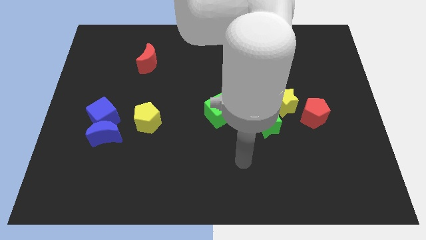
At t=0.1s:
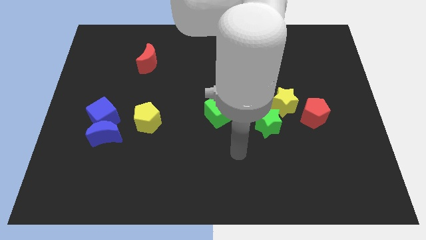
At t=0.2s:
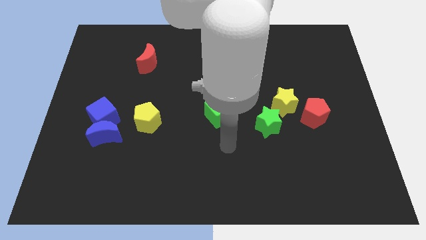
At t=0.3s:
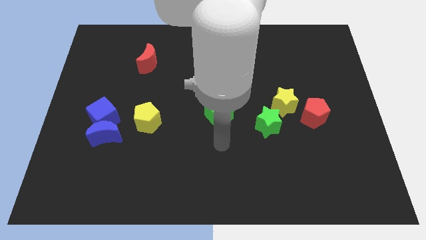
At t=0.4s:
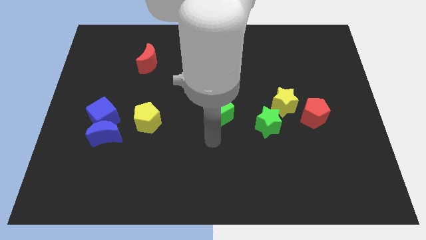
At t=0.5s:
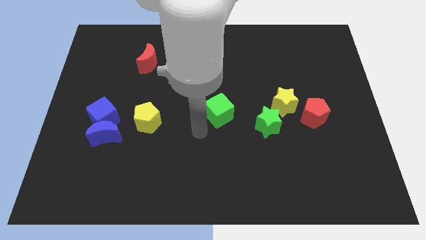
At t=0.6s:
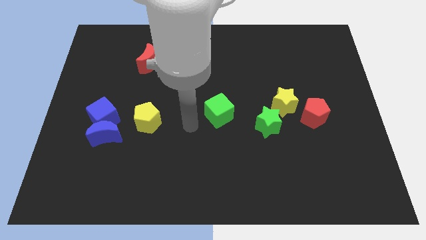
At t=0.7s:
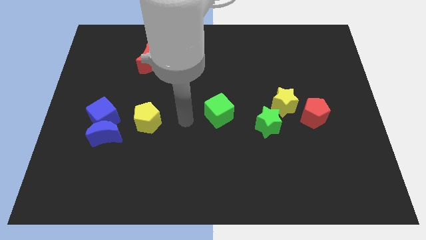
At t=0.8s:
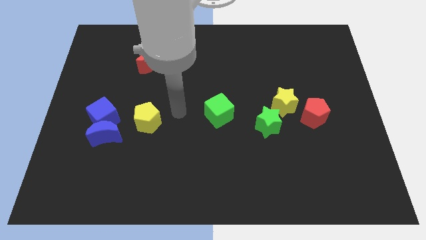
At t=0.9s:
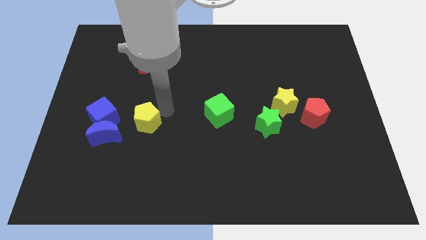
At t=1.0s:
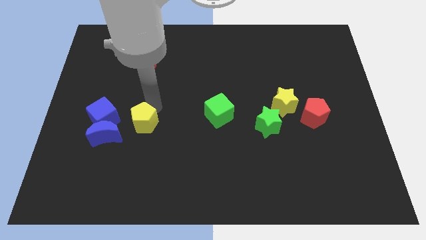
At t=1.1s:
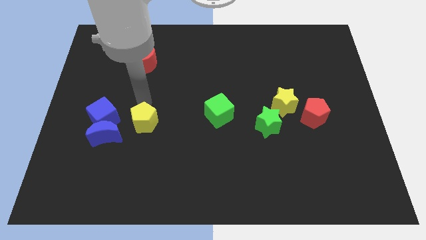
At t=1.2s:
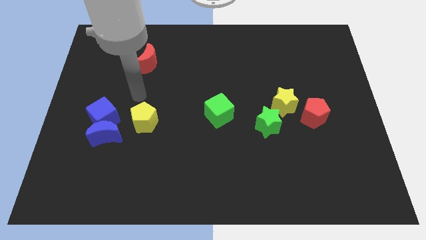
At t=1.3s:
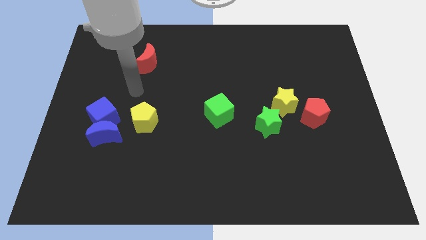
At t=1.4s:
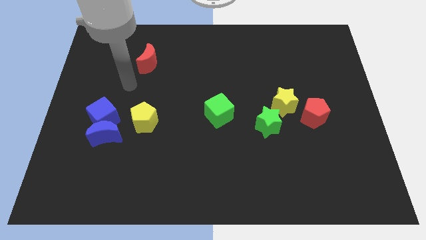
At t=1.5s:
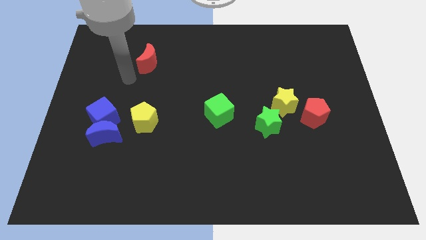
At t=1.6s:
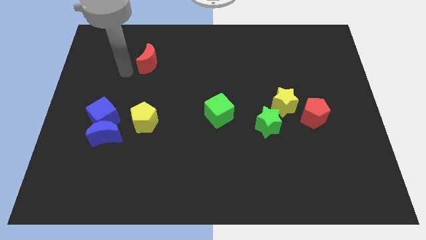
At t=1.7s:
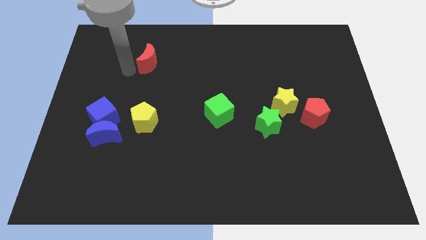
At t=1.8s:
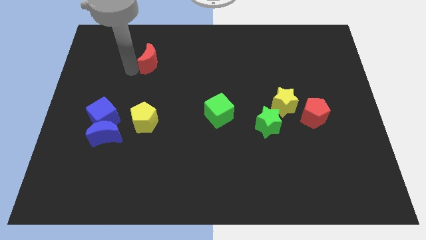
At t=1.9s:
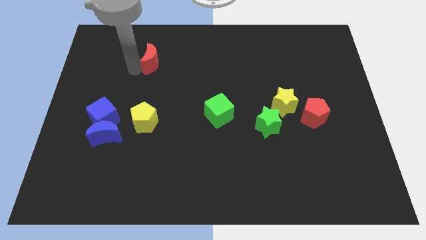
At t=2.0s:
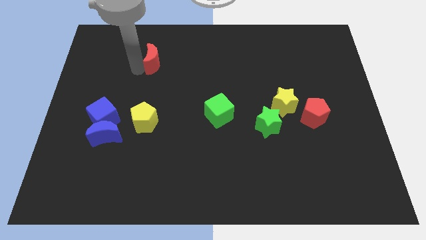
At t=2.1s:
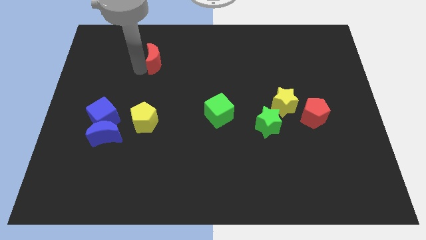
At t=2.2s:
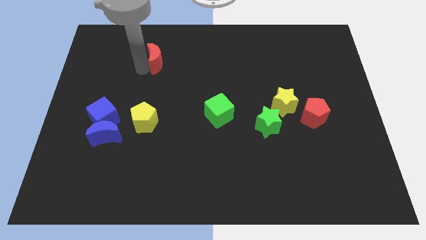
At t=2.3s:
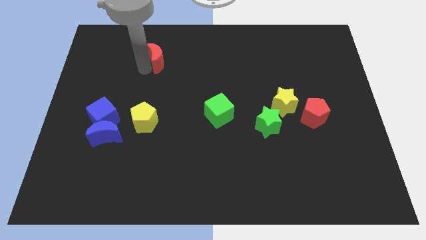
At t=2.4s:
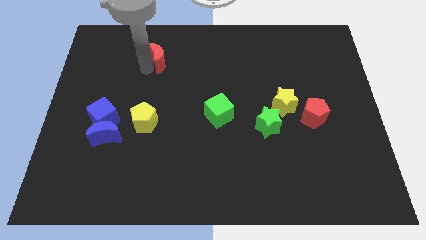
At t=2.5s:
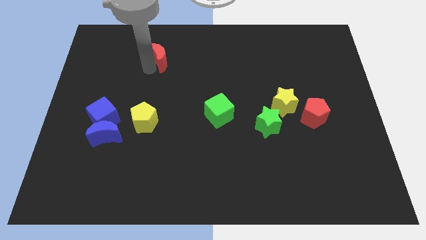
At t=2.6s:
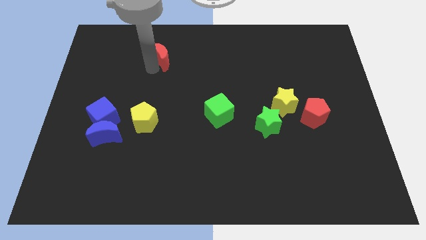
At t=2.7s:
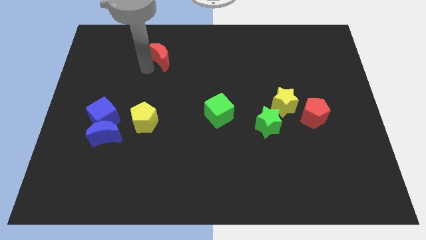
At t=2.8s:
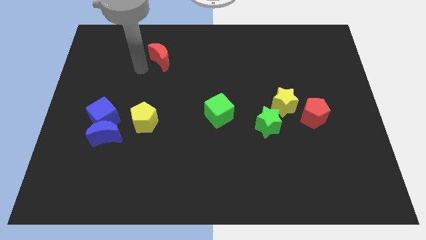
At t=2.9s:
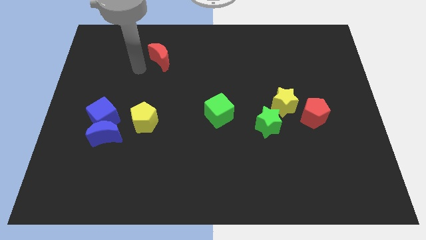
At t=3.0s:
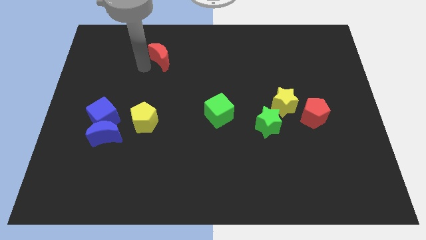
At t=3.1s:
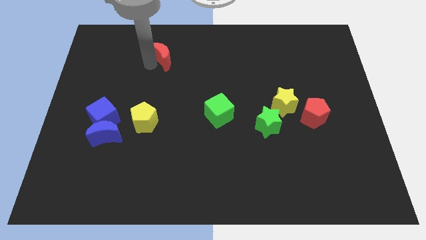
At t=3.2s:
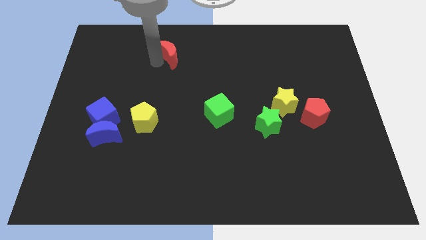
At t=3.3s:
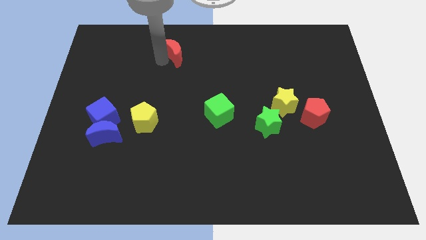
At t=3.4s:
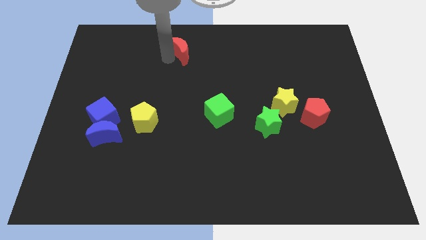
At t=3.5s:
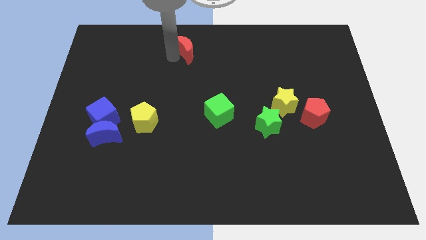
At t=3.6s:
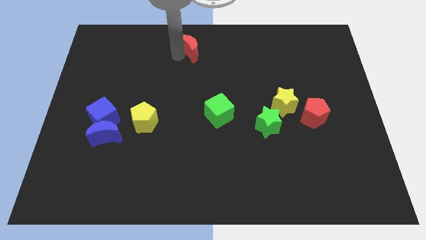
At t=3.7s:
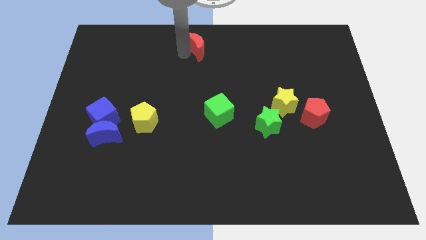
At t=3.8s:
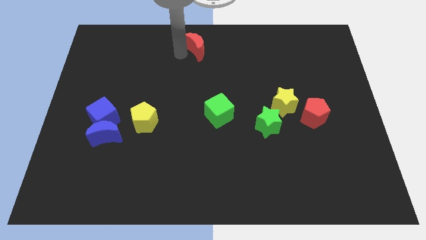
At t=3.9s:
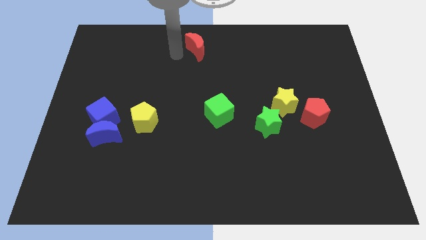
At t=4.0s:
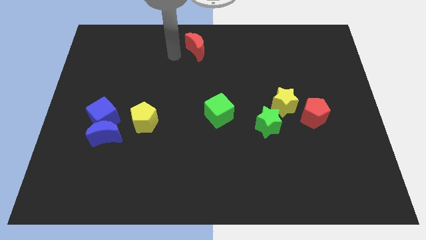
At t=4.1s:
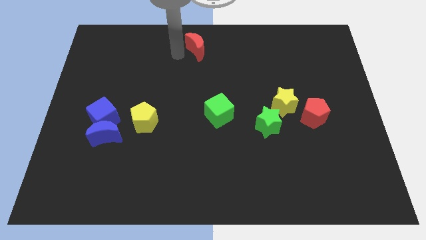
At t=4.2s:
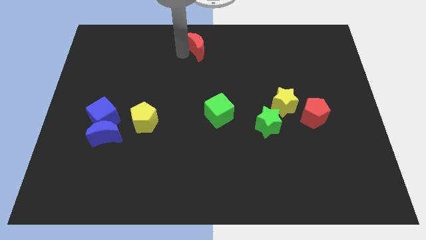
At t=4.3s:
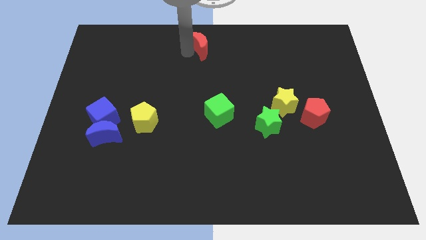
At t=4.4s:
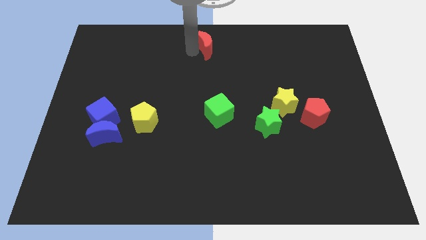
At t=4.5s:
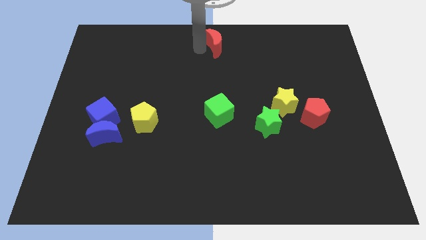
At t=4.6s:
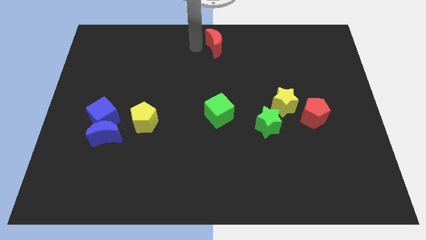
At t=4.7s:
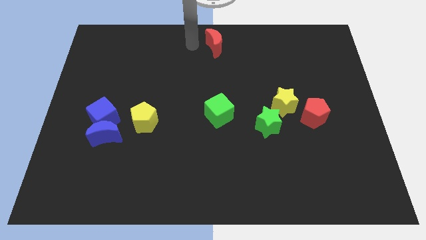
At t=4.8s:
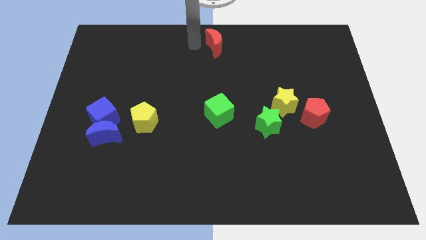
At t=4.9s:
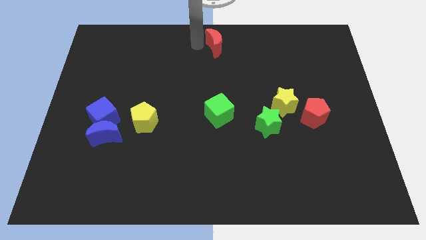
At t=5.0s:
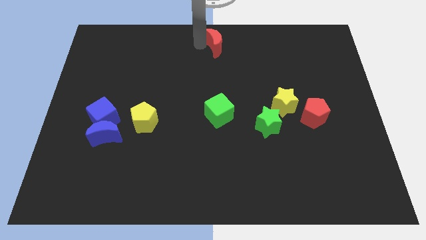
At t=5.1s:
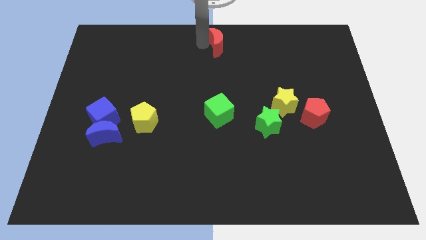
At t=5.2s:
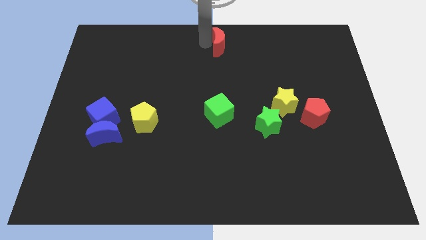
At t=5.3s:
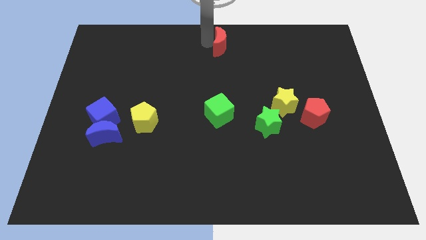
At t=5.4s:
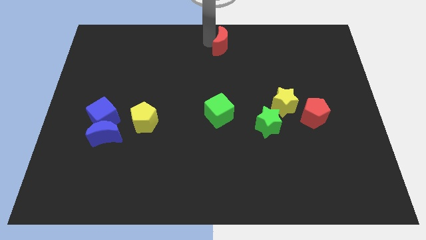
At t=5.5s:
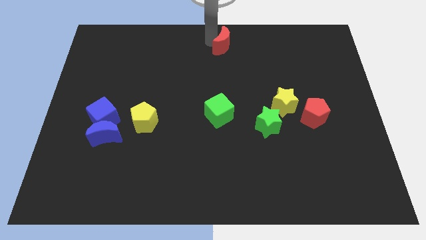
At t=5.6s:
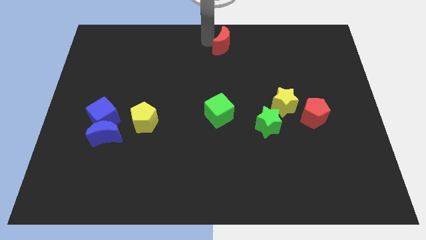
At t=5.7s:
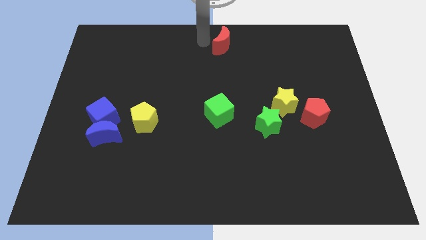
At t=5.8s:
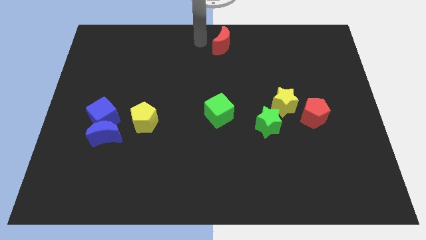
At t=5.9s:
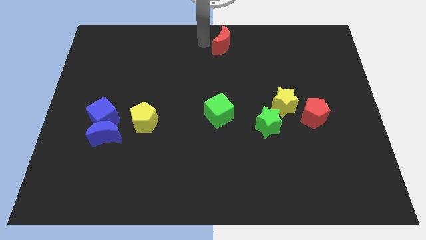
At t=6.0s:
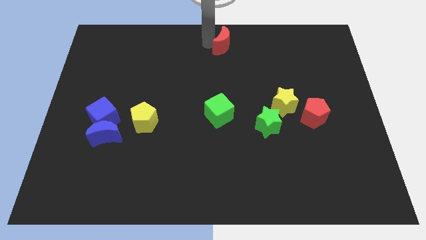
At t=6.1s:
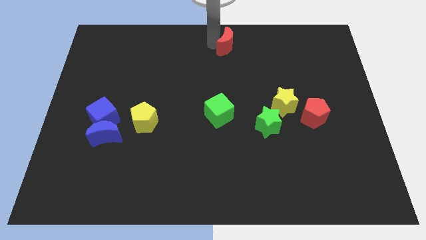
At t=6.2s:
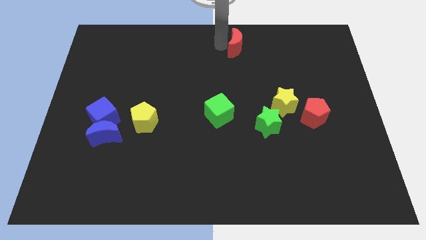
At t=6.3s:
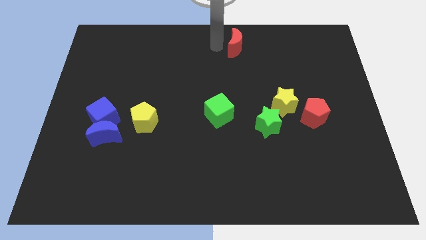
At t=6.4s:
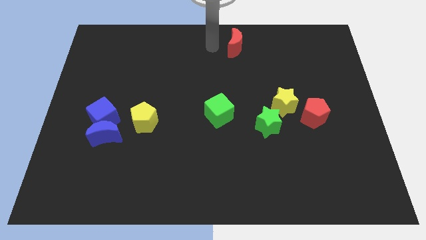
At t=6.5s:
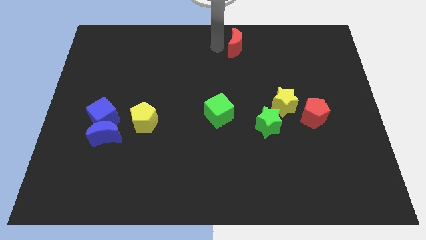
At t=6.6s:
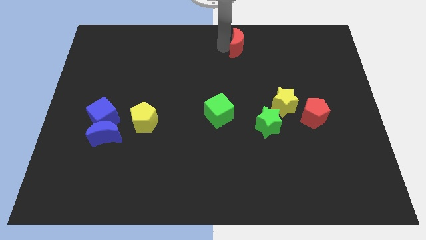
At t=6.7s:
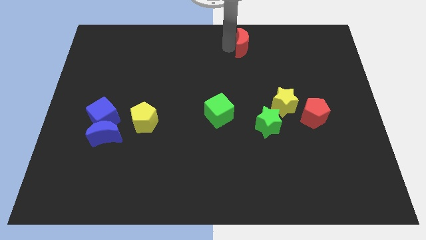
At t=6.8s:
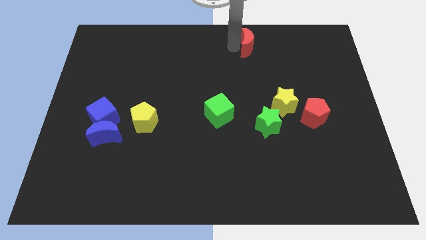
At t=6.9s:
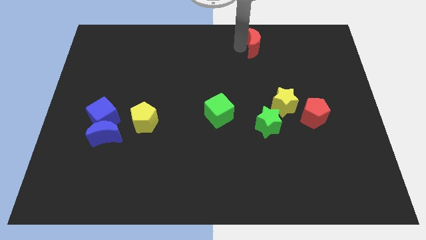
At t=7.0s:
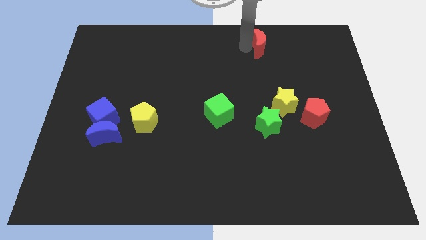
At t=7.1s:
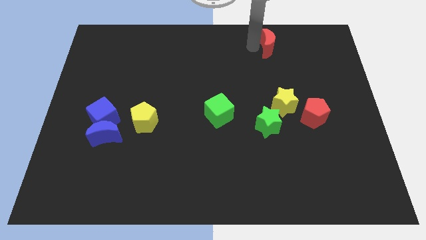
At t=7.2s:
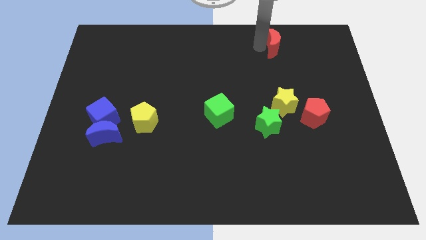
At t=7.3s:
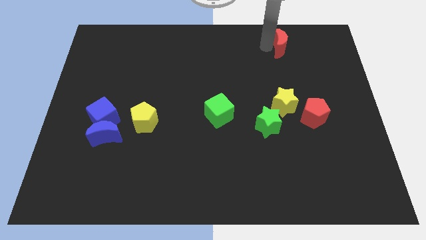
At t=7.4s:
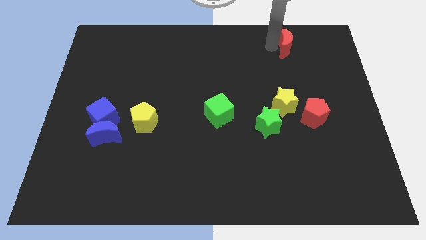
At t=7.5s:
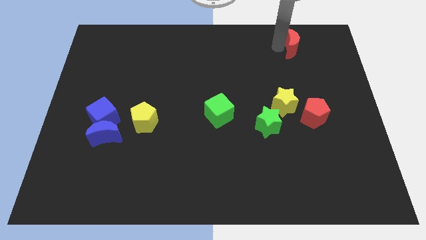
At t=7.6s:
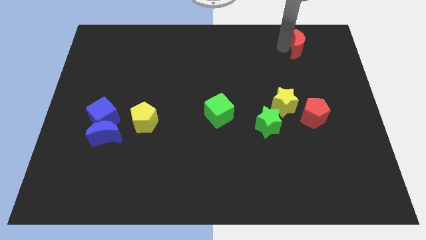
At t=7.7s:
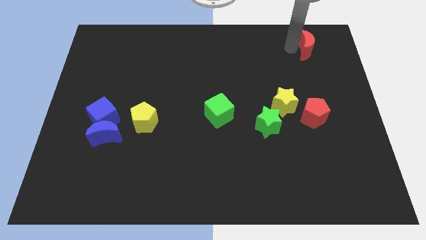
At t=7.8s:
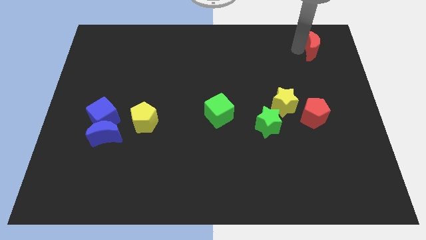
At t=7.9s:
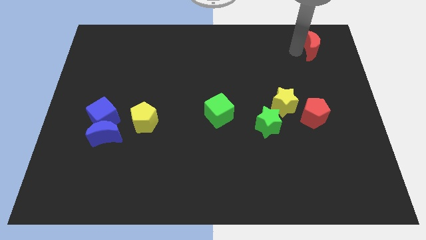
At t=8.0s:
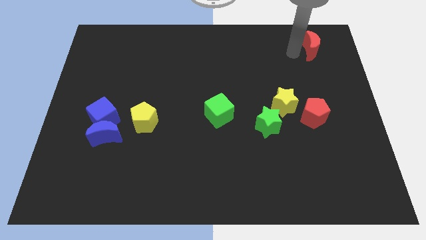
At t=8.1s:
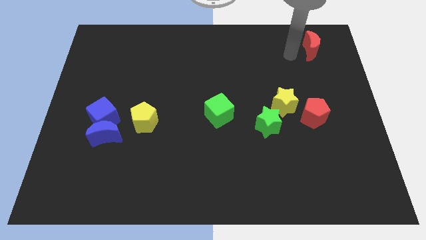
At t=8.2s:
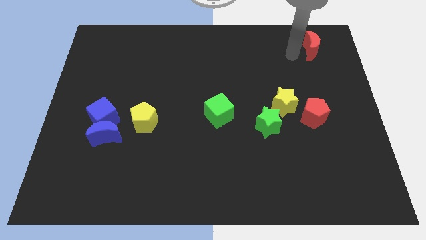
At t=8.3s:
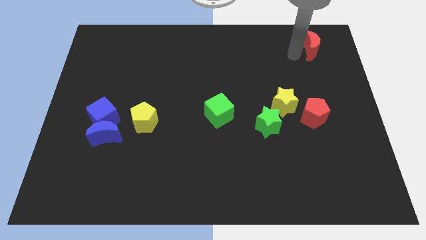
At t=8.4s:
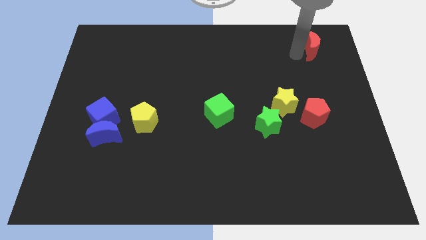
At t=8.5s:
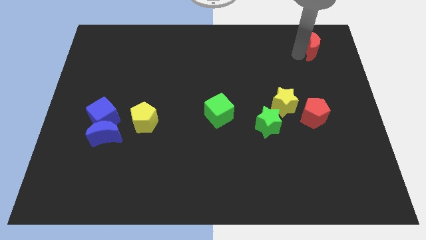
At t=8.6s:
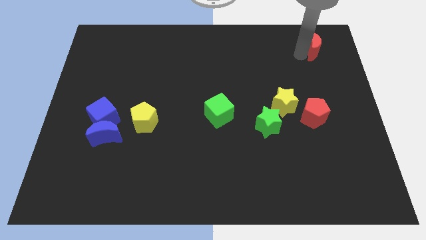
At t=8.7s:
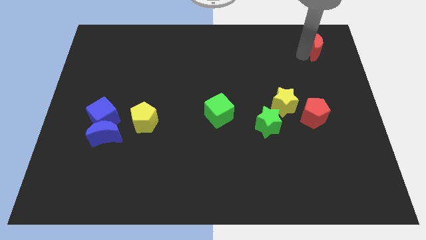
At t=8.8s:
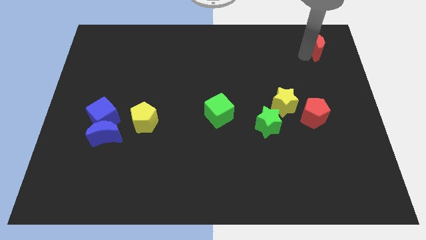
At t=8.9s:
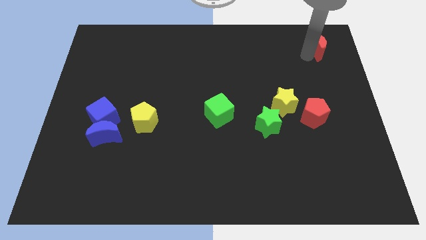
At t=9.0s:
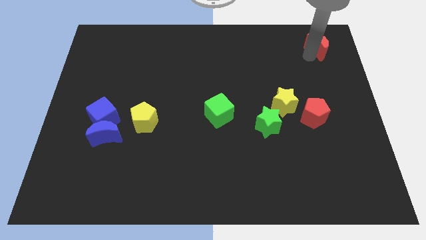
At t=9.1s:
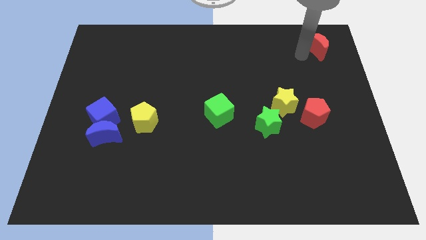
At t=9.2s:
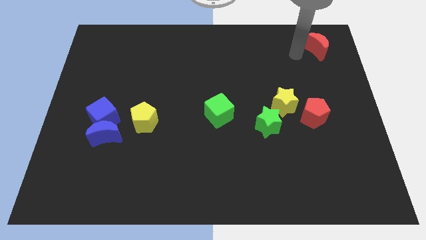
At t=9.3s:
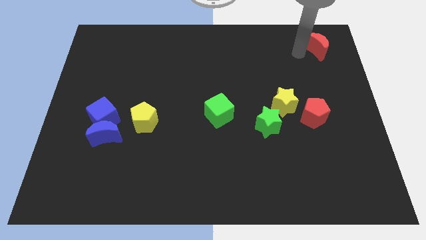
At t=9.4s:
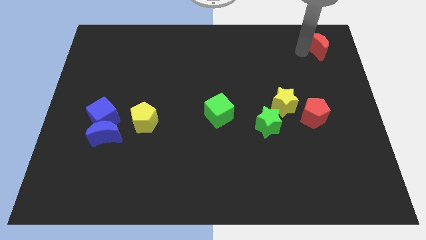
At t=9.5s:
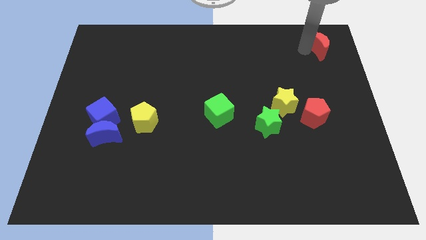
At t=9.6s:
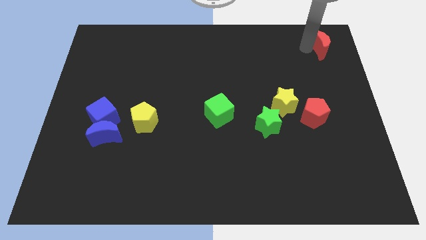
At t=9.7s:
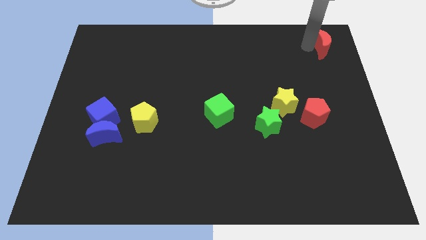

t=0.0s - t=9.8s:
move the red moon to the top right corner
